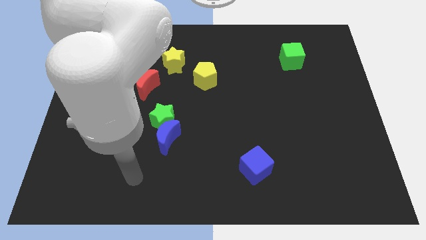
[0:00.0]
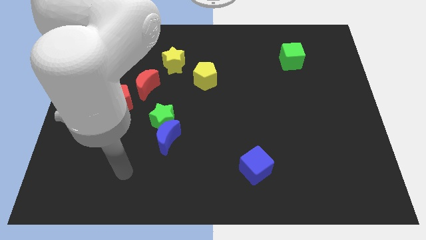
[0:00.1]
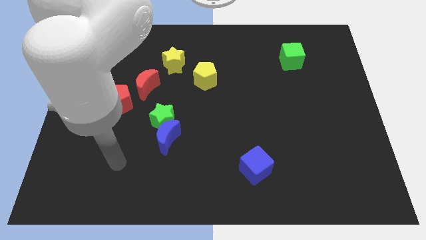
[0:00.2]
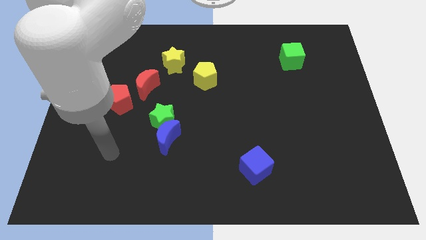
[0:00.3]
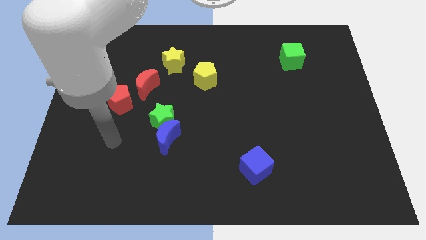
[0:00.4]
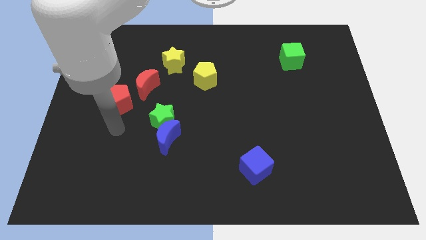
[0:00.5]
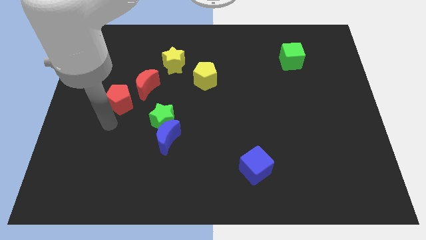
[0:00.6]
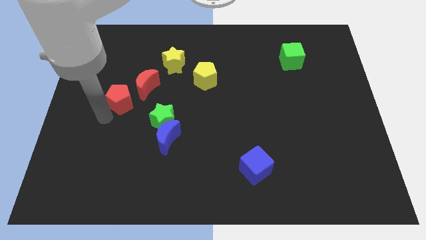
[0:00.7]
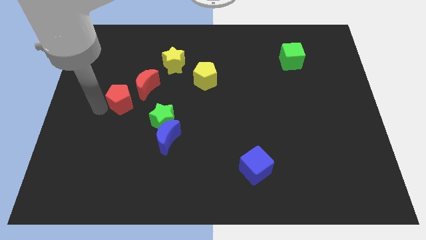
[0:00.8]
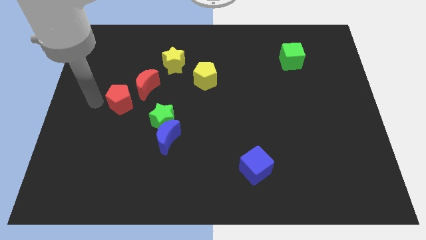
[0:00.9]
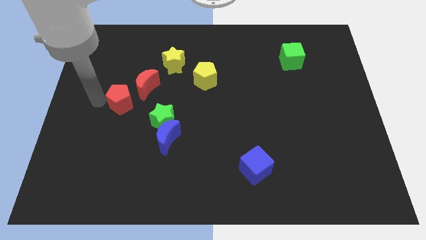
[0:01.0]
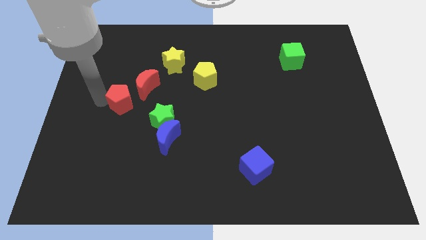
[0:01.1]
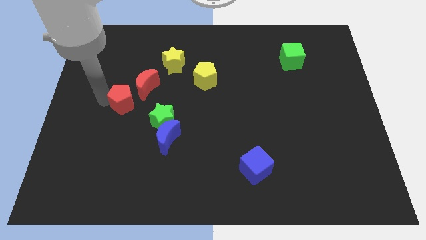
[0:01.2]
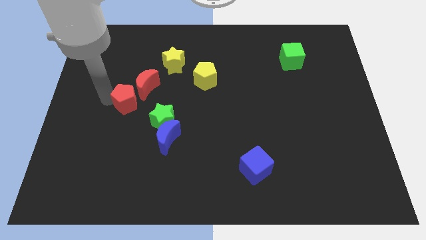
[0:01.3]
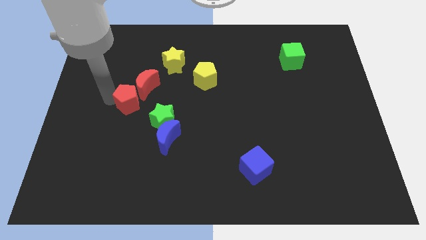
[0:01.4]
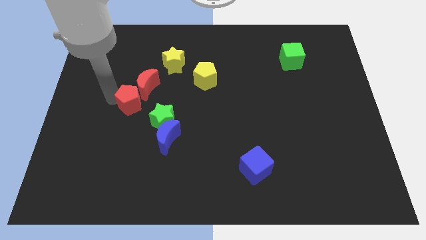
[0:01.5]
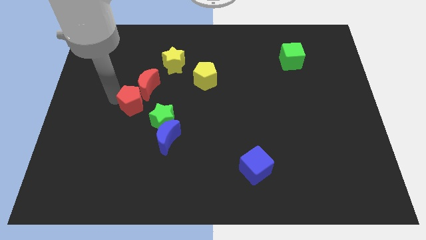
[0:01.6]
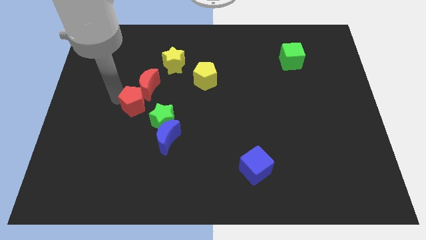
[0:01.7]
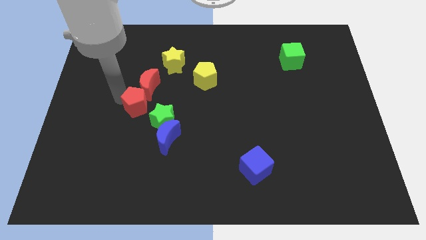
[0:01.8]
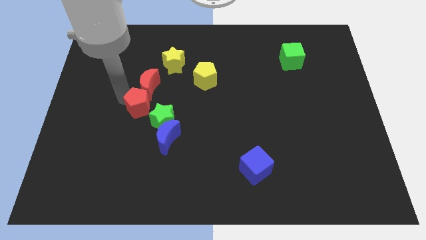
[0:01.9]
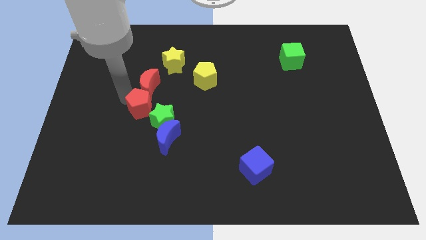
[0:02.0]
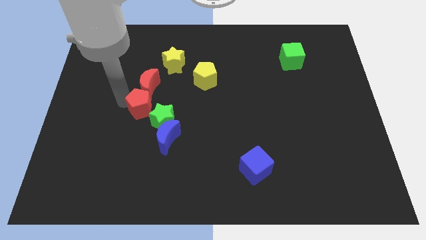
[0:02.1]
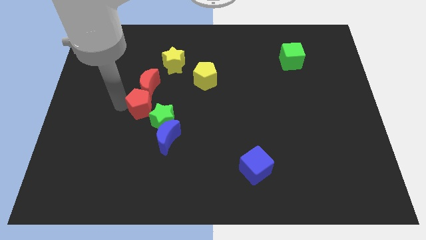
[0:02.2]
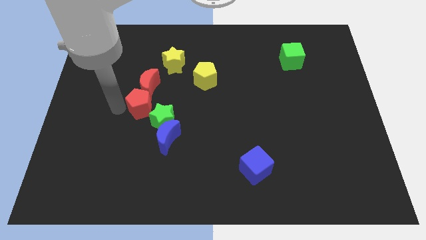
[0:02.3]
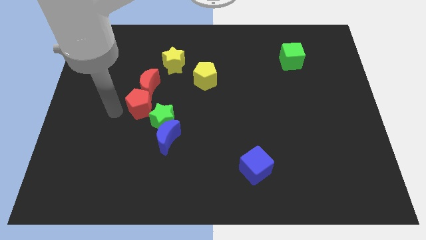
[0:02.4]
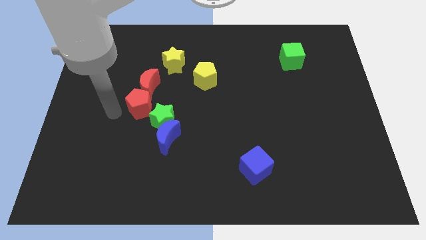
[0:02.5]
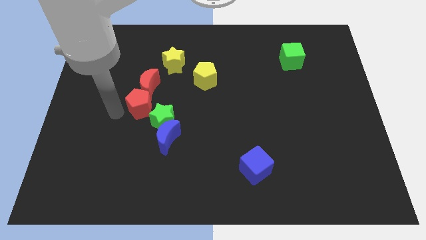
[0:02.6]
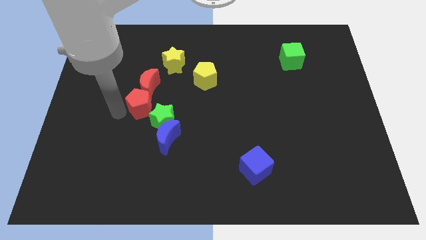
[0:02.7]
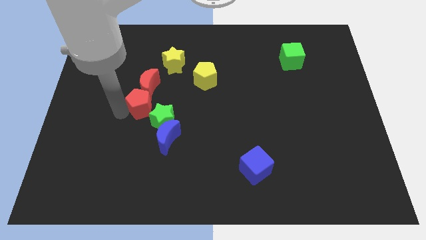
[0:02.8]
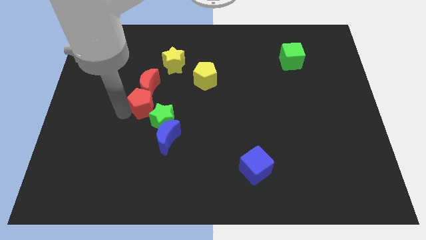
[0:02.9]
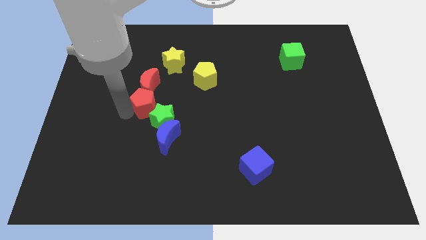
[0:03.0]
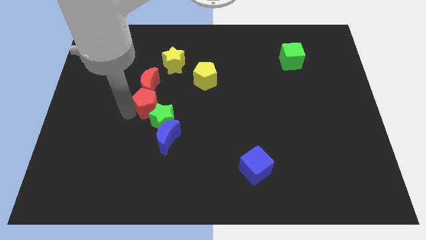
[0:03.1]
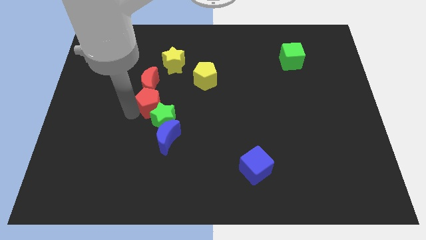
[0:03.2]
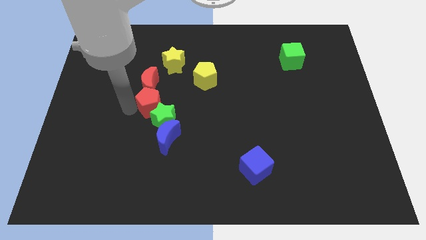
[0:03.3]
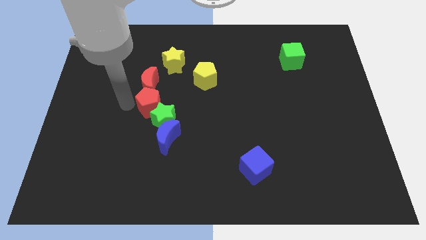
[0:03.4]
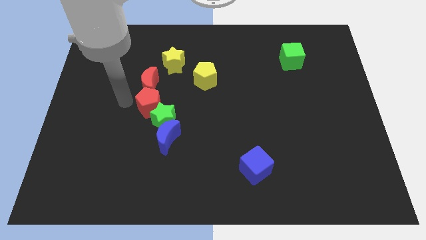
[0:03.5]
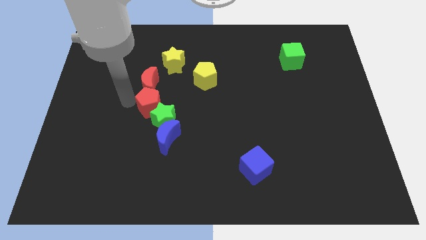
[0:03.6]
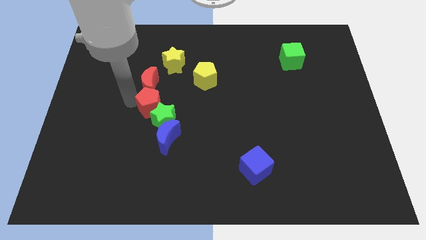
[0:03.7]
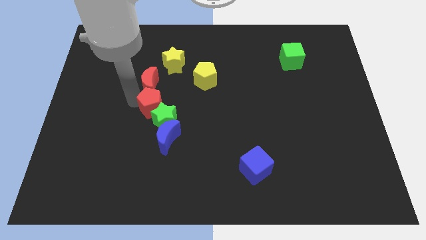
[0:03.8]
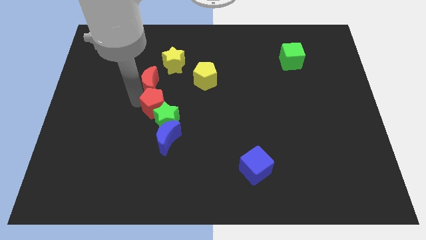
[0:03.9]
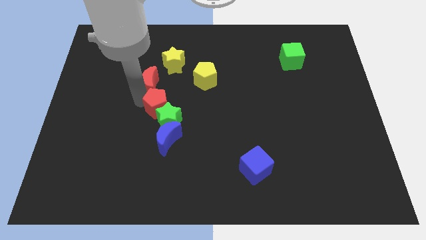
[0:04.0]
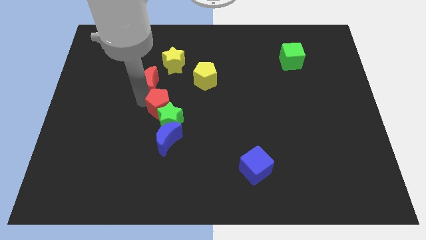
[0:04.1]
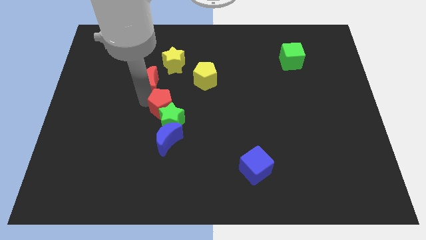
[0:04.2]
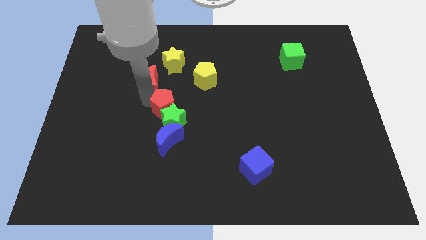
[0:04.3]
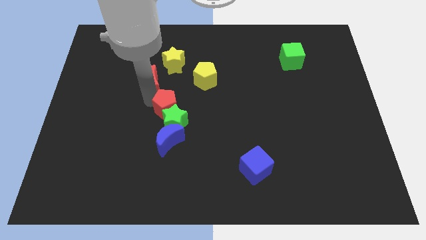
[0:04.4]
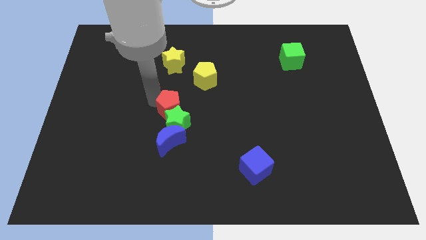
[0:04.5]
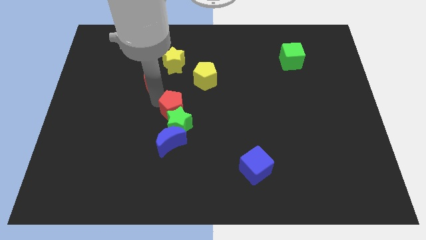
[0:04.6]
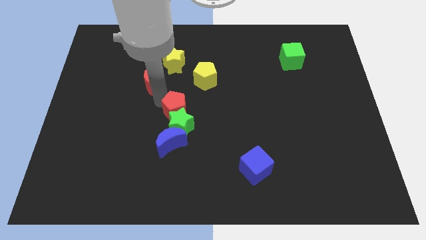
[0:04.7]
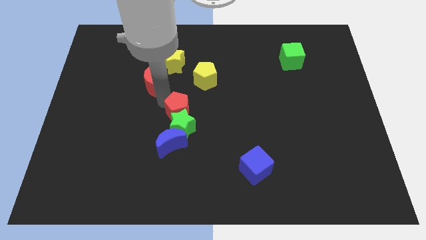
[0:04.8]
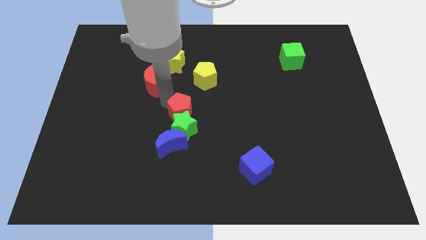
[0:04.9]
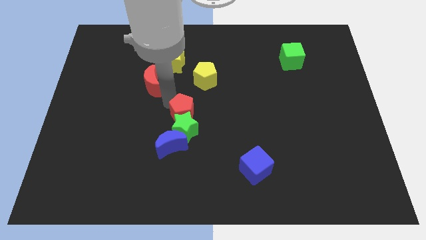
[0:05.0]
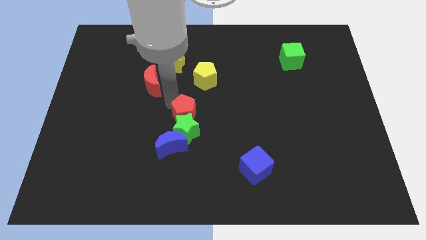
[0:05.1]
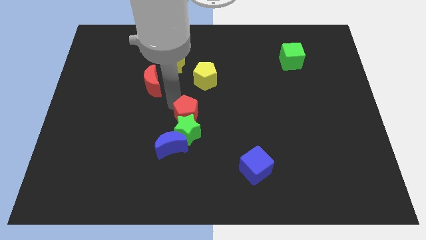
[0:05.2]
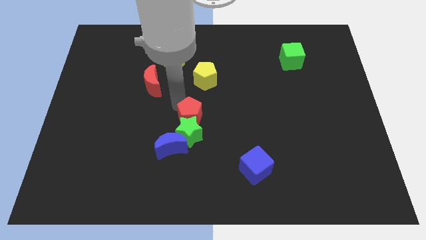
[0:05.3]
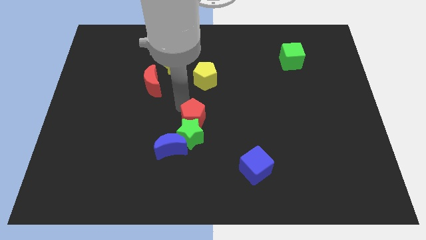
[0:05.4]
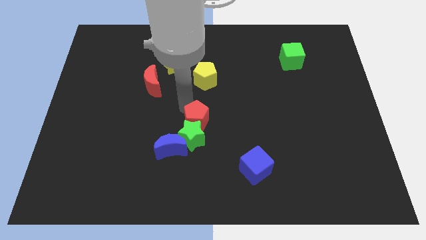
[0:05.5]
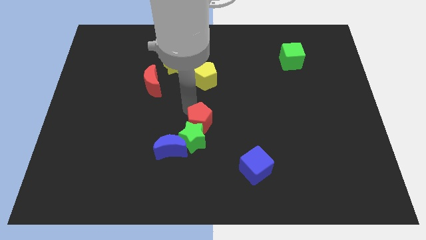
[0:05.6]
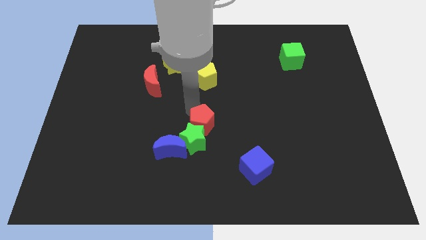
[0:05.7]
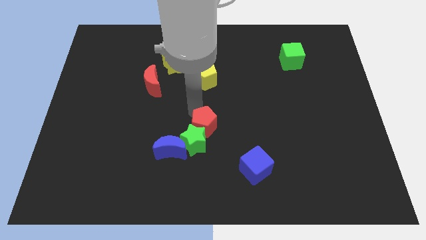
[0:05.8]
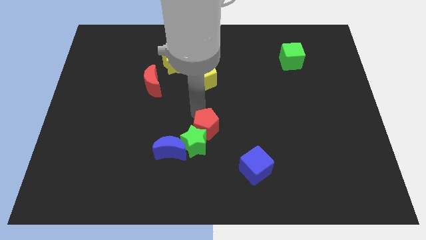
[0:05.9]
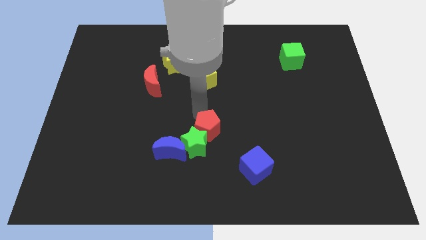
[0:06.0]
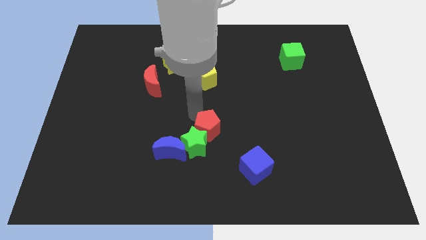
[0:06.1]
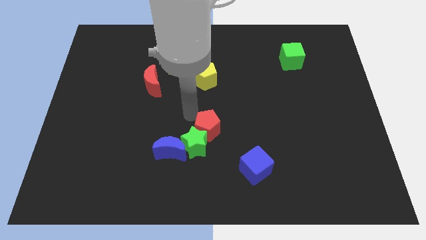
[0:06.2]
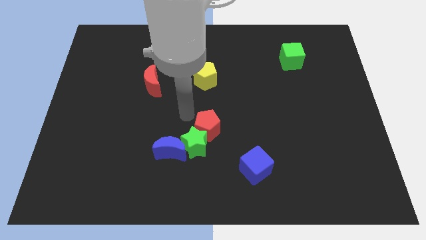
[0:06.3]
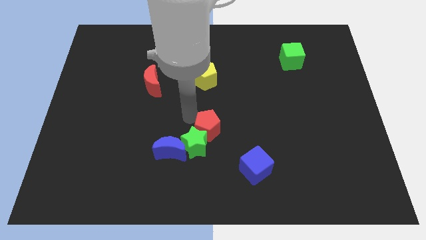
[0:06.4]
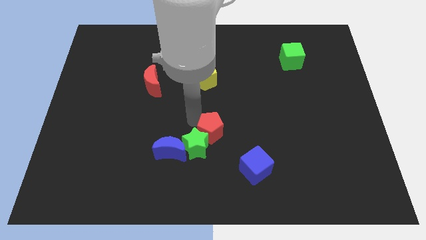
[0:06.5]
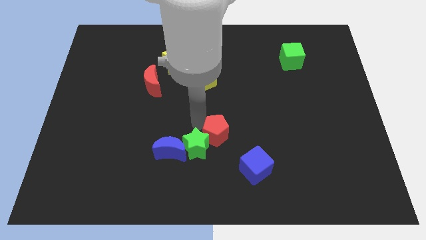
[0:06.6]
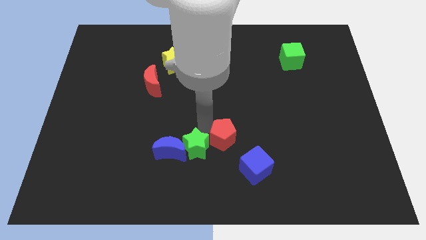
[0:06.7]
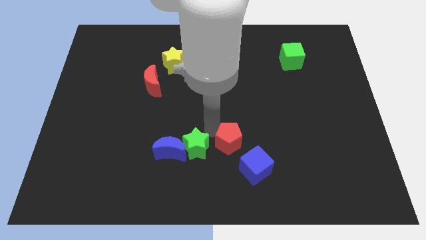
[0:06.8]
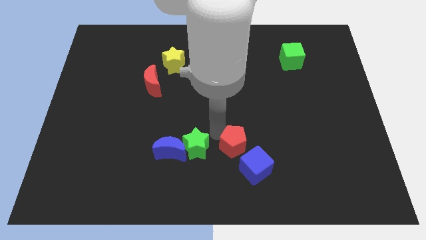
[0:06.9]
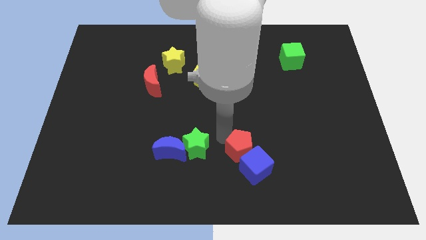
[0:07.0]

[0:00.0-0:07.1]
move the red pentagon next to the blue cube

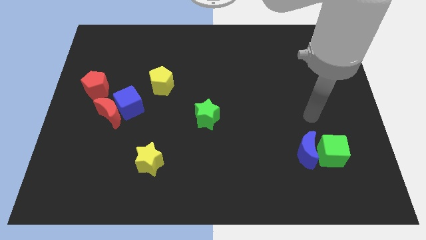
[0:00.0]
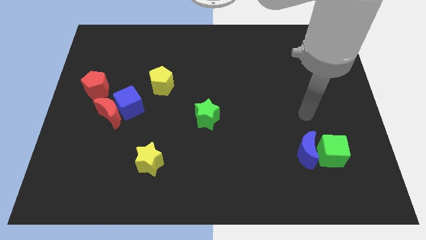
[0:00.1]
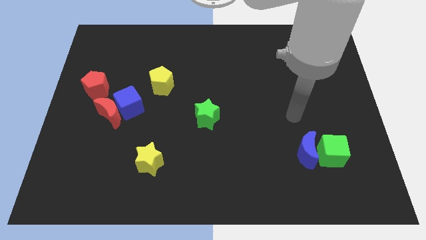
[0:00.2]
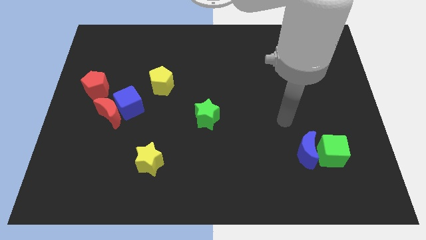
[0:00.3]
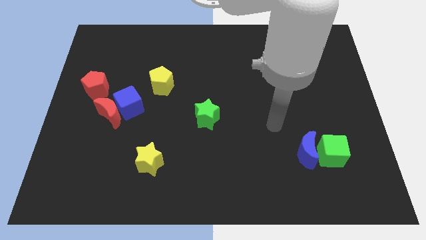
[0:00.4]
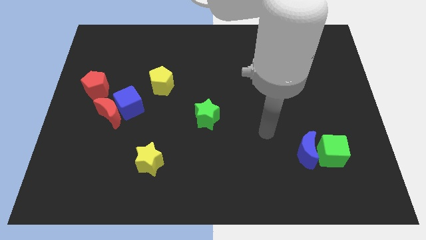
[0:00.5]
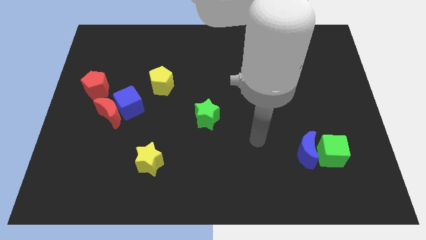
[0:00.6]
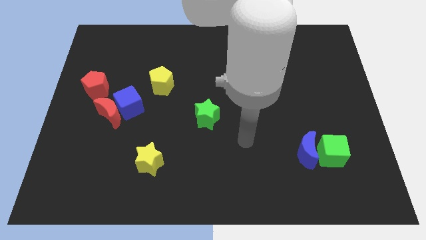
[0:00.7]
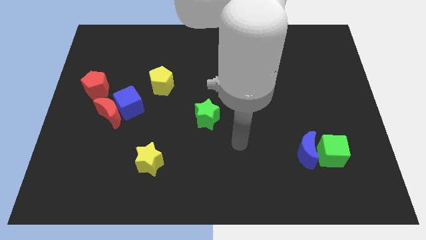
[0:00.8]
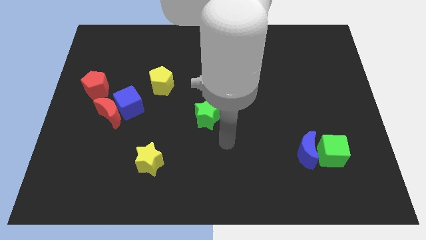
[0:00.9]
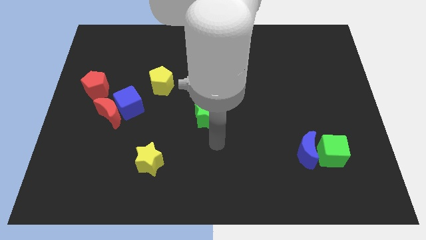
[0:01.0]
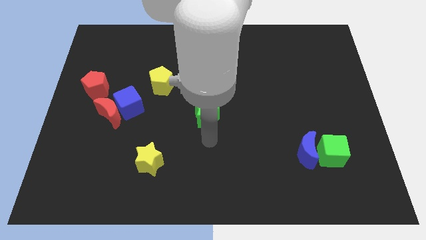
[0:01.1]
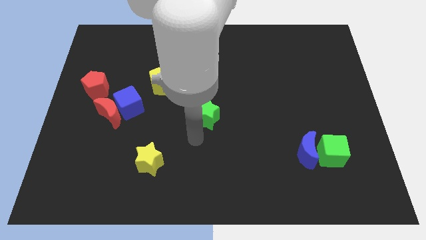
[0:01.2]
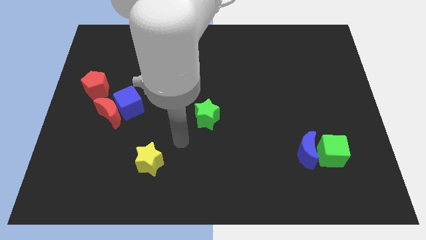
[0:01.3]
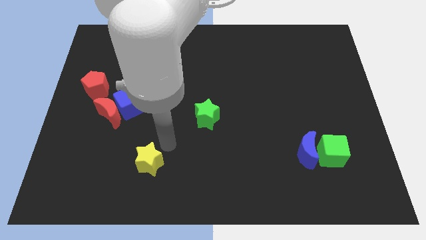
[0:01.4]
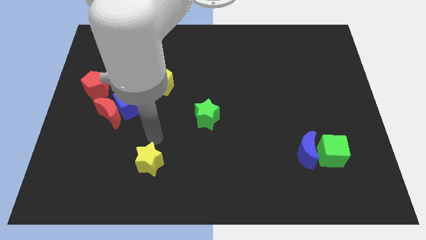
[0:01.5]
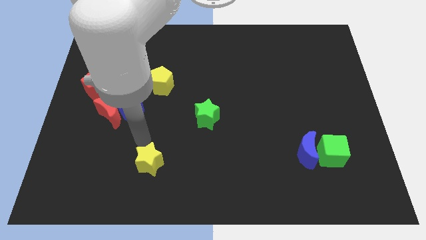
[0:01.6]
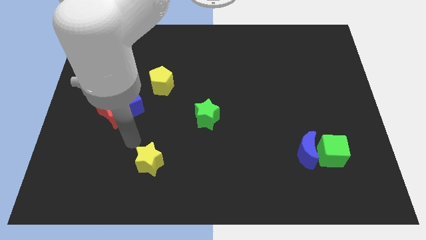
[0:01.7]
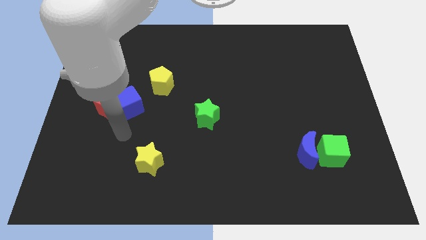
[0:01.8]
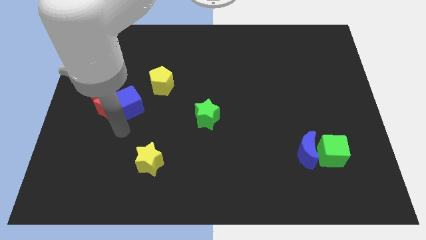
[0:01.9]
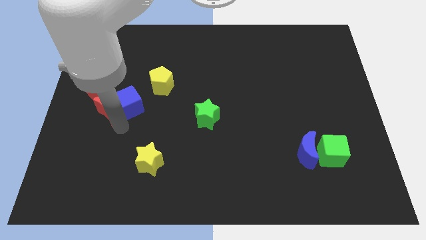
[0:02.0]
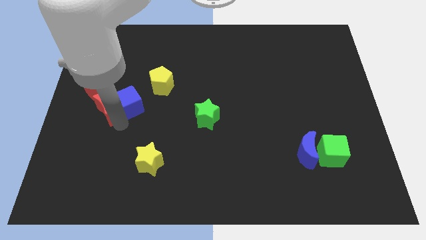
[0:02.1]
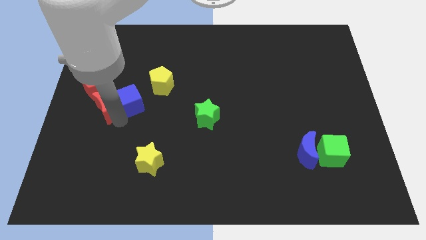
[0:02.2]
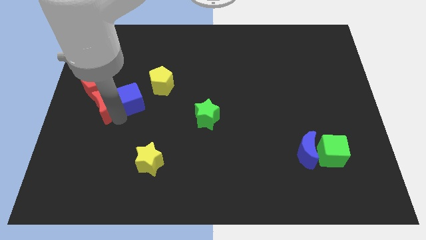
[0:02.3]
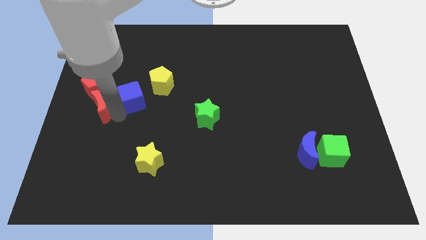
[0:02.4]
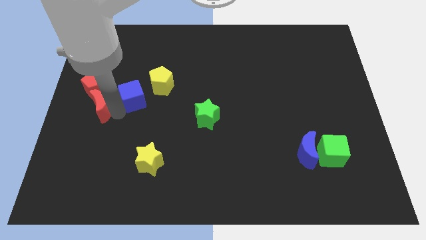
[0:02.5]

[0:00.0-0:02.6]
slide the red moon towards the red pentagon
